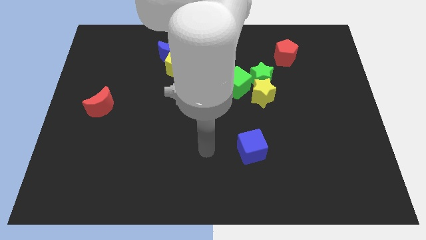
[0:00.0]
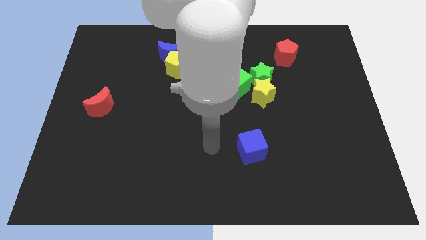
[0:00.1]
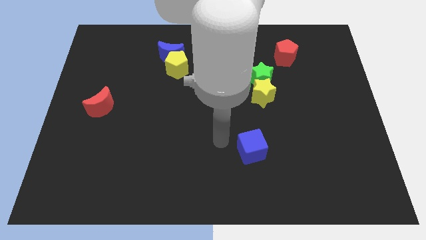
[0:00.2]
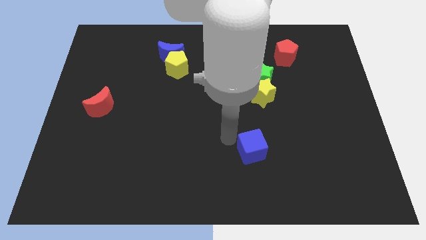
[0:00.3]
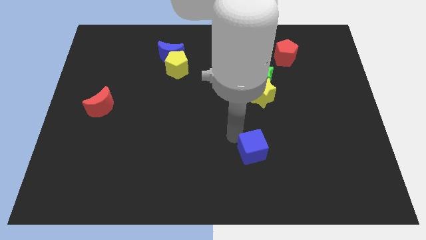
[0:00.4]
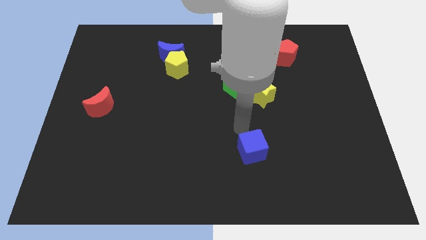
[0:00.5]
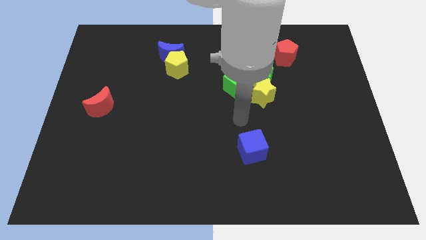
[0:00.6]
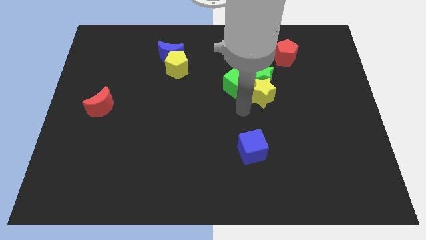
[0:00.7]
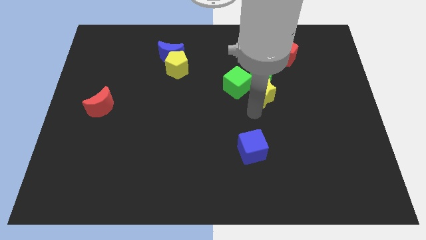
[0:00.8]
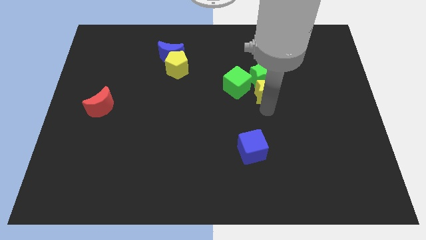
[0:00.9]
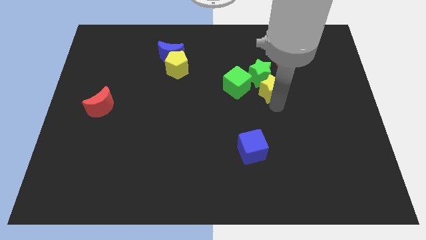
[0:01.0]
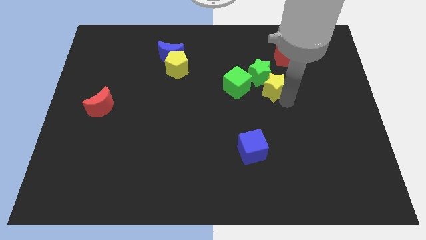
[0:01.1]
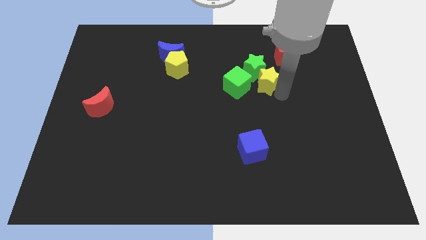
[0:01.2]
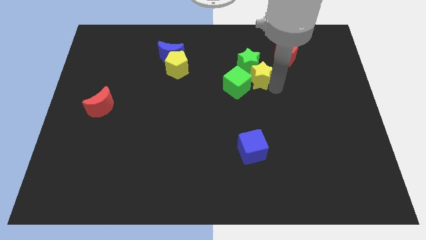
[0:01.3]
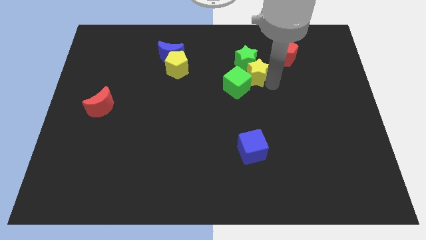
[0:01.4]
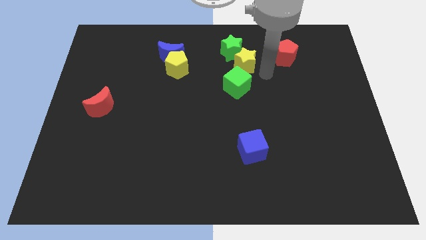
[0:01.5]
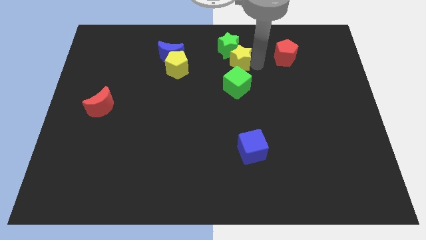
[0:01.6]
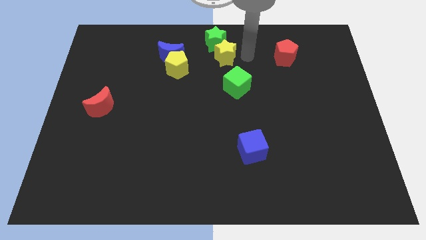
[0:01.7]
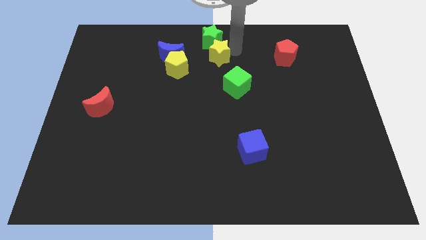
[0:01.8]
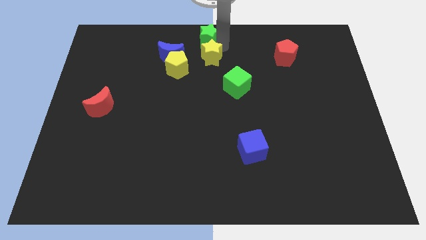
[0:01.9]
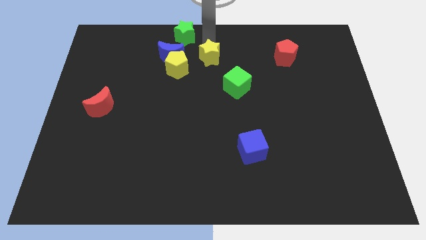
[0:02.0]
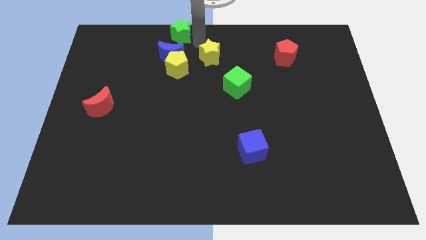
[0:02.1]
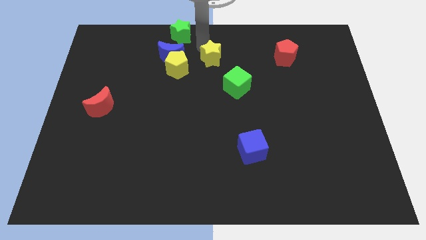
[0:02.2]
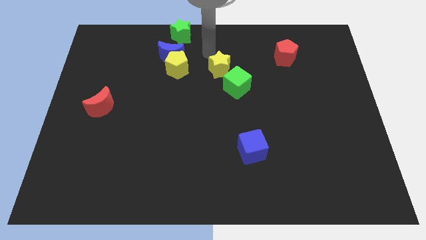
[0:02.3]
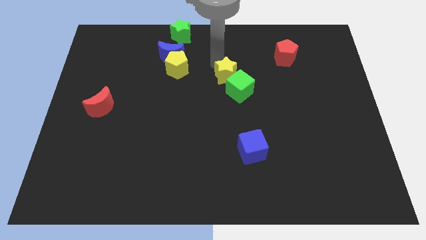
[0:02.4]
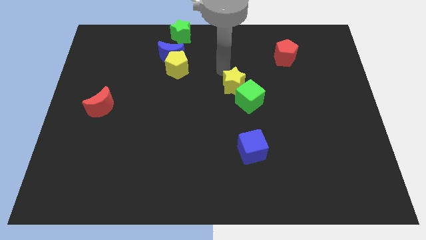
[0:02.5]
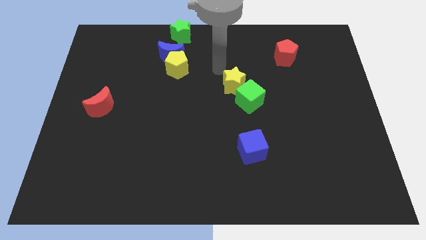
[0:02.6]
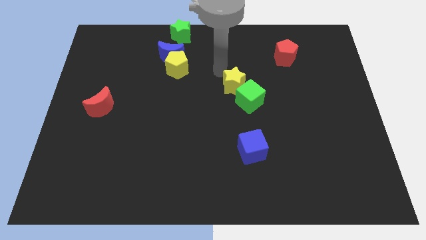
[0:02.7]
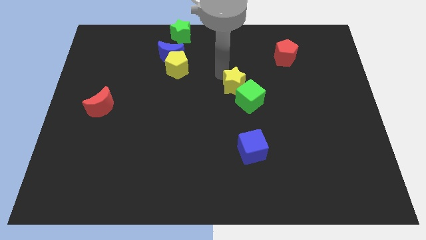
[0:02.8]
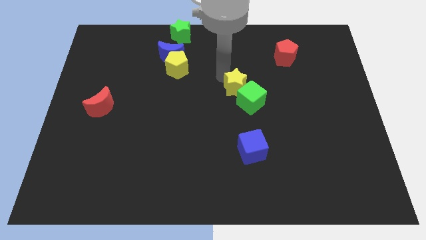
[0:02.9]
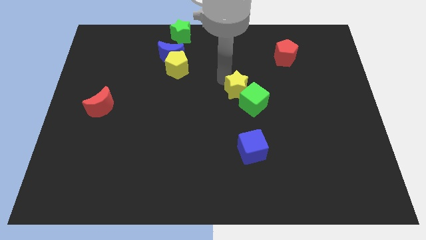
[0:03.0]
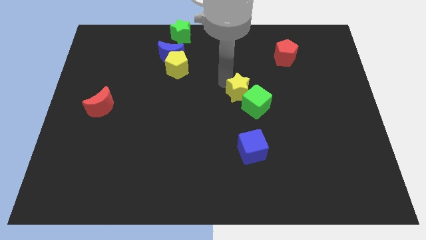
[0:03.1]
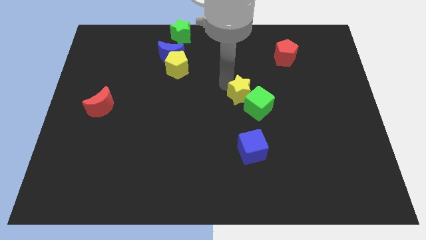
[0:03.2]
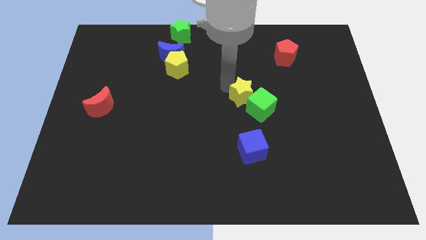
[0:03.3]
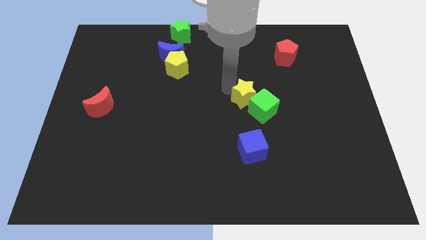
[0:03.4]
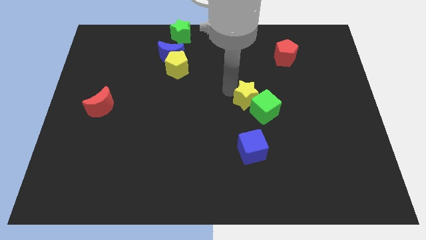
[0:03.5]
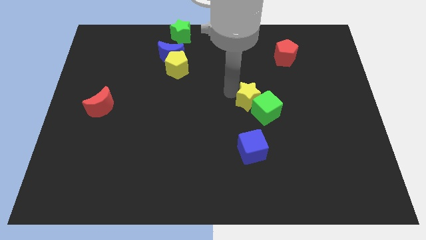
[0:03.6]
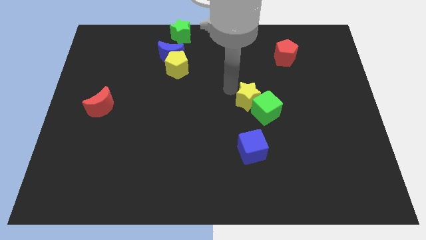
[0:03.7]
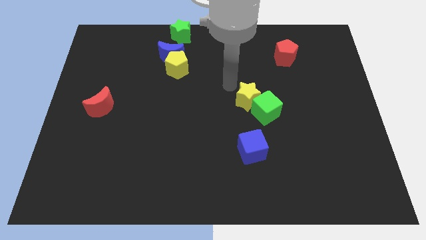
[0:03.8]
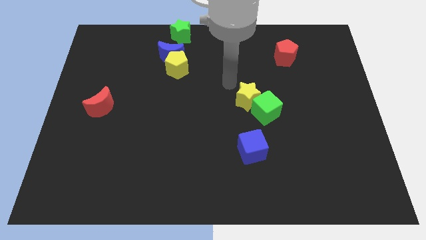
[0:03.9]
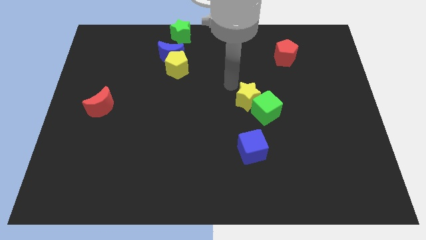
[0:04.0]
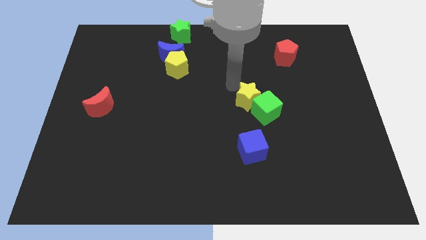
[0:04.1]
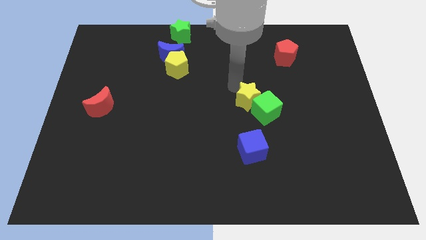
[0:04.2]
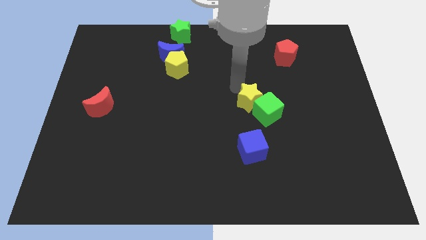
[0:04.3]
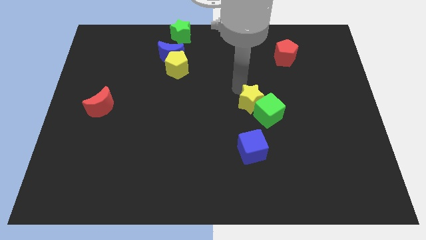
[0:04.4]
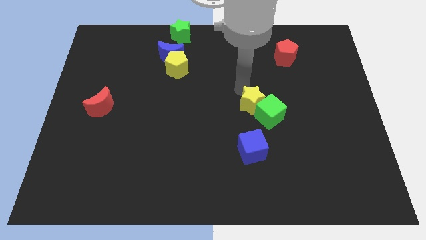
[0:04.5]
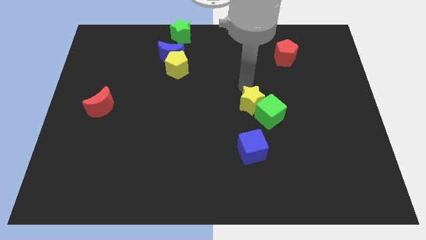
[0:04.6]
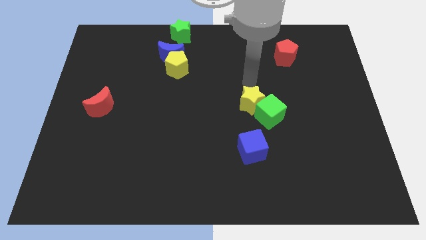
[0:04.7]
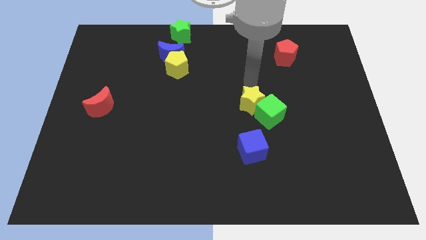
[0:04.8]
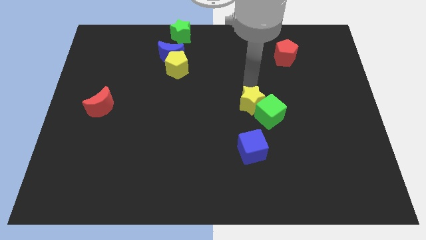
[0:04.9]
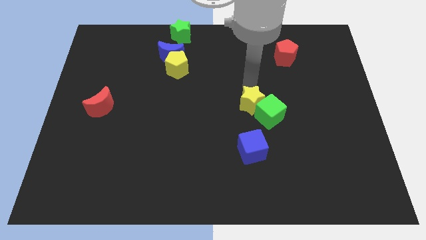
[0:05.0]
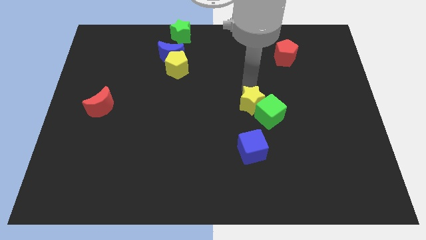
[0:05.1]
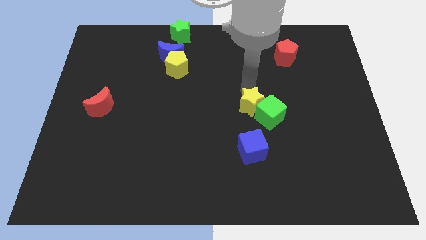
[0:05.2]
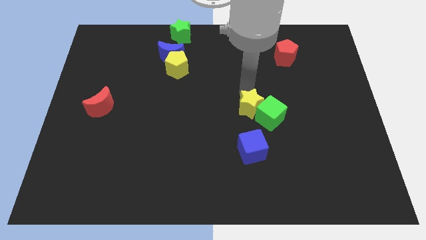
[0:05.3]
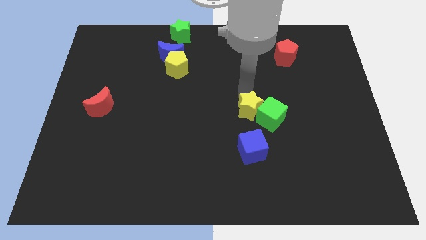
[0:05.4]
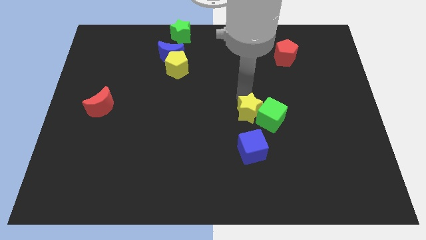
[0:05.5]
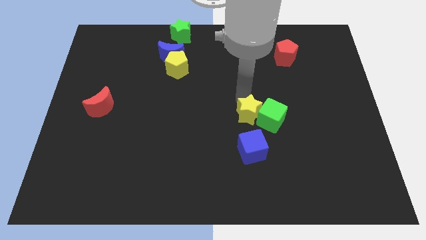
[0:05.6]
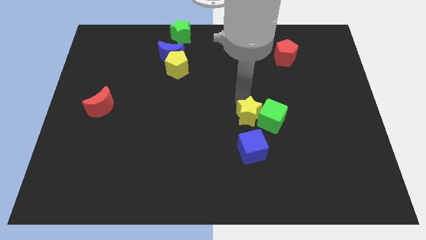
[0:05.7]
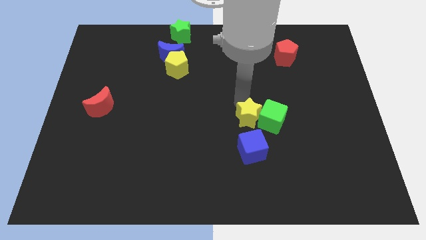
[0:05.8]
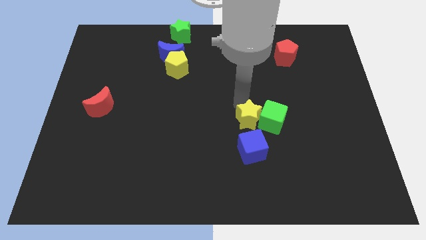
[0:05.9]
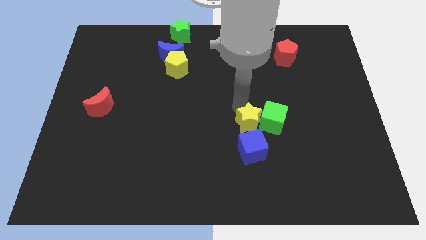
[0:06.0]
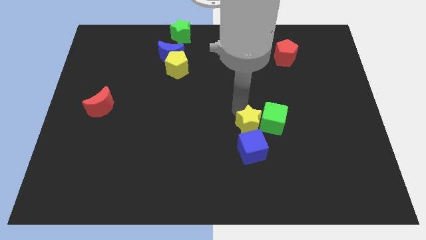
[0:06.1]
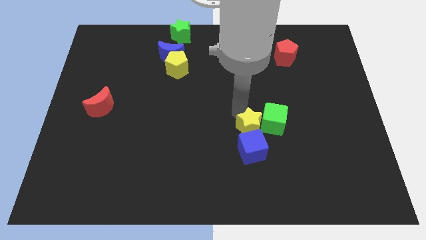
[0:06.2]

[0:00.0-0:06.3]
push the yellow star next to the blue cube
